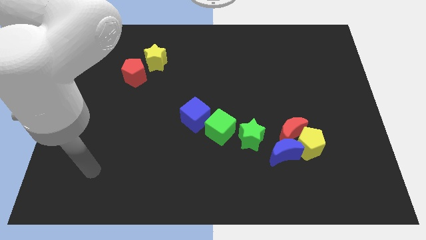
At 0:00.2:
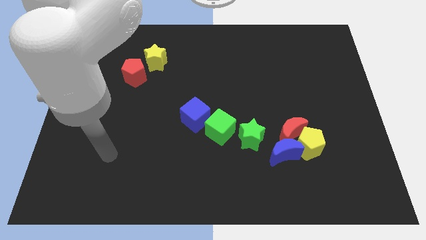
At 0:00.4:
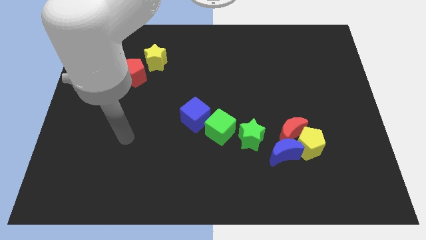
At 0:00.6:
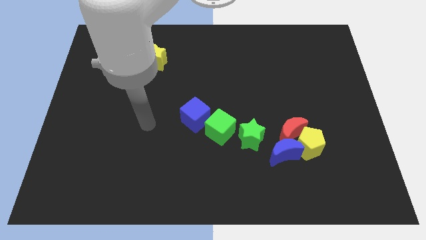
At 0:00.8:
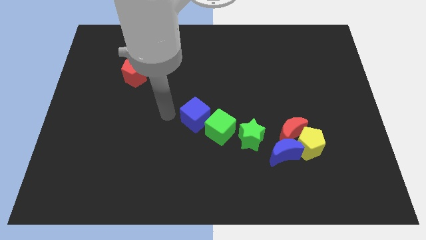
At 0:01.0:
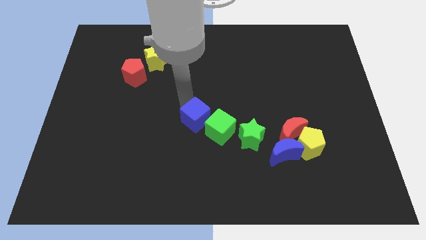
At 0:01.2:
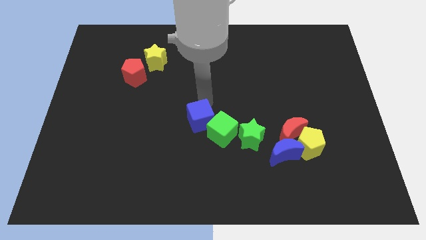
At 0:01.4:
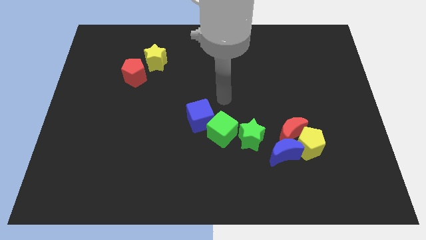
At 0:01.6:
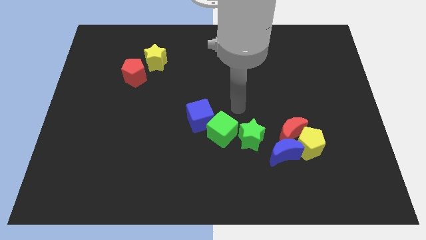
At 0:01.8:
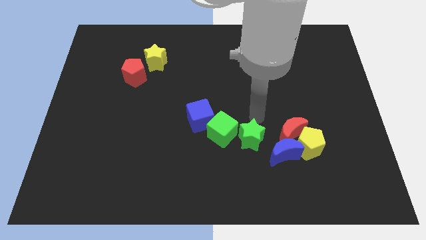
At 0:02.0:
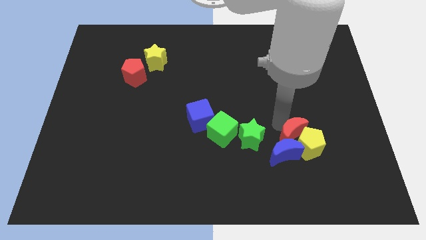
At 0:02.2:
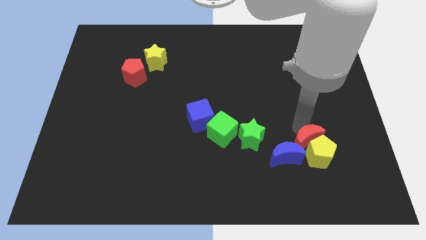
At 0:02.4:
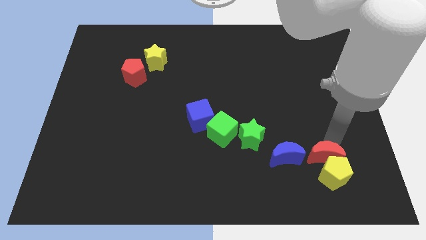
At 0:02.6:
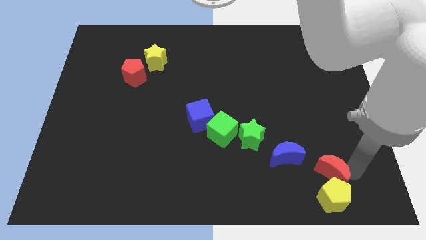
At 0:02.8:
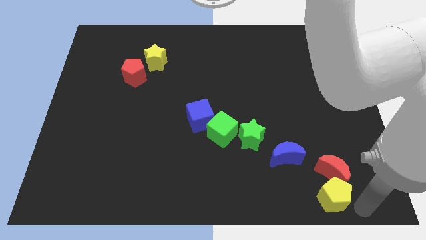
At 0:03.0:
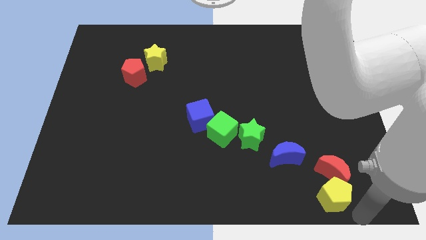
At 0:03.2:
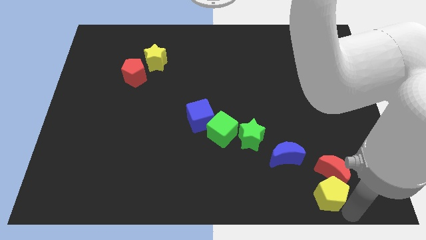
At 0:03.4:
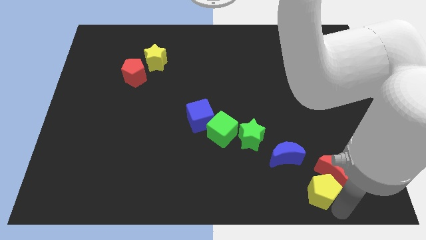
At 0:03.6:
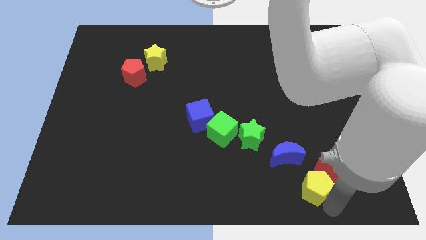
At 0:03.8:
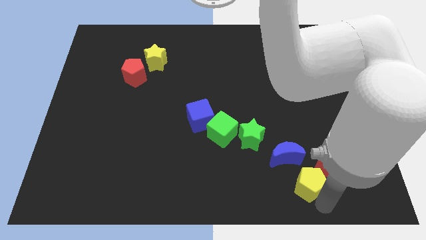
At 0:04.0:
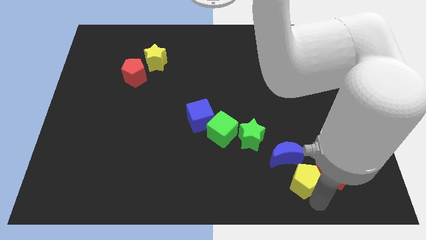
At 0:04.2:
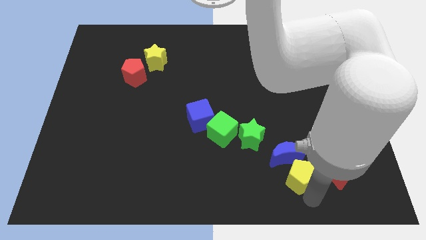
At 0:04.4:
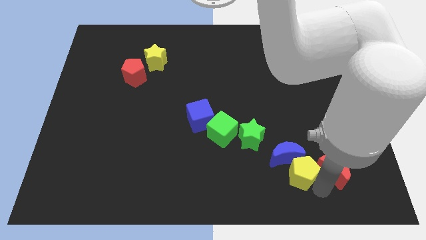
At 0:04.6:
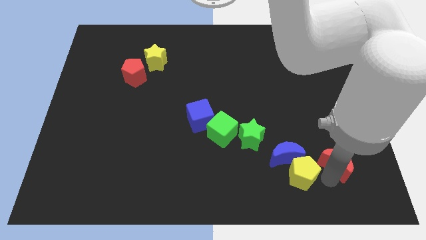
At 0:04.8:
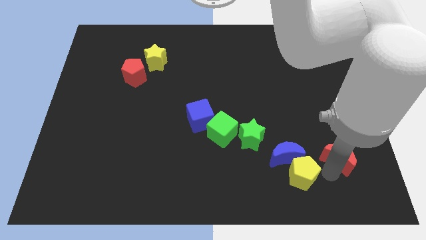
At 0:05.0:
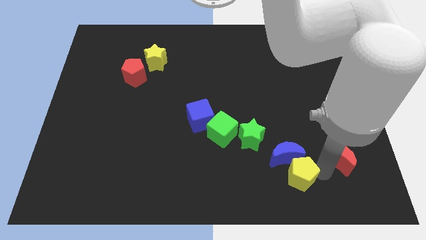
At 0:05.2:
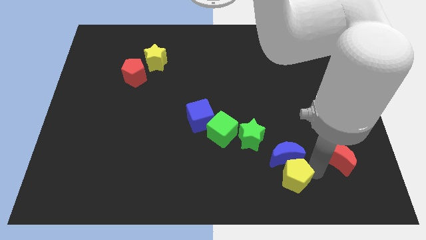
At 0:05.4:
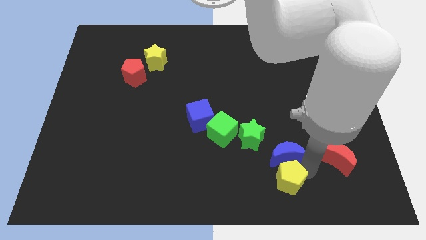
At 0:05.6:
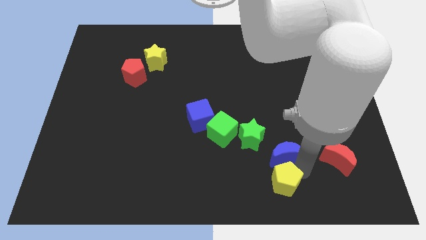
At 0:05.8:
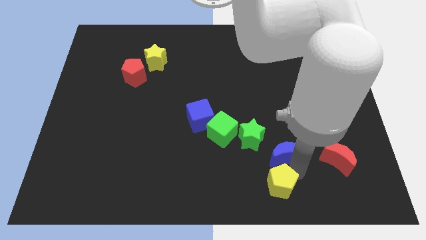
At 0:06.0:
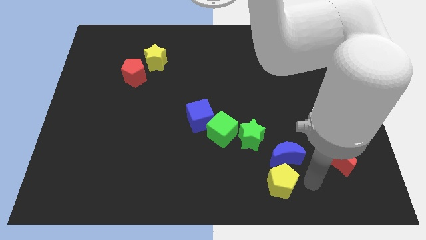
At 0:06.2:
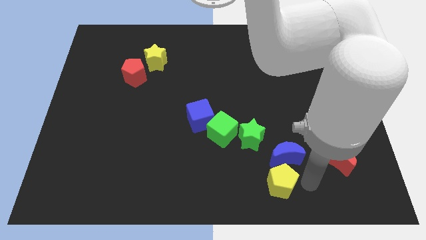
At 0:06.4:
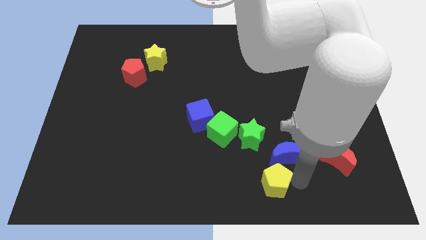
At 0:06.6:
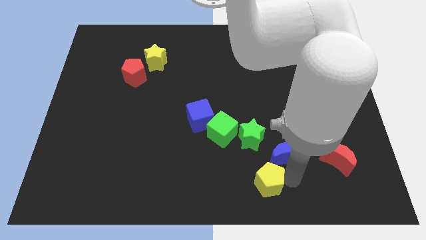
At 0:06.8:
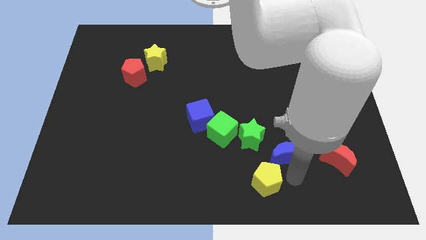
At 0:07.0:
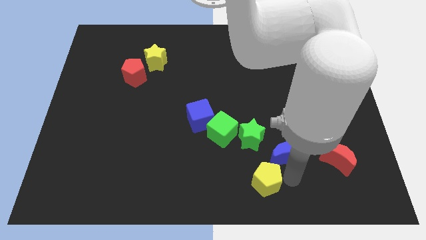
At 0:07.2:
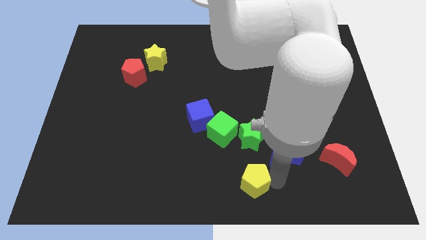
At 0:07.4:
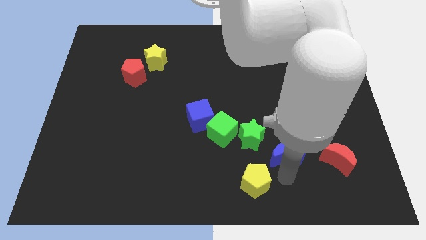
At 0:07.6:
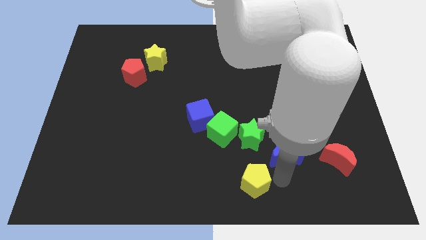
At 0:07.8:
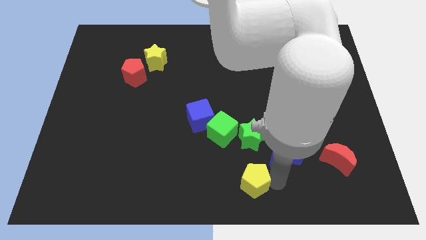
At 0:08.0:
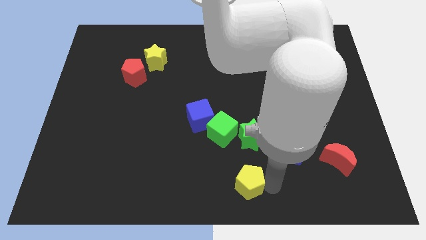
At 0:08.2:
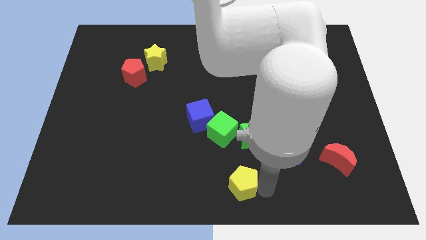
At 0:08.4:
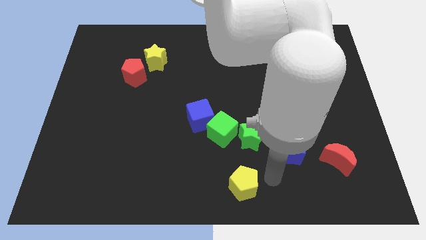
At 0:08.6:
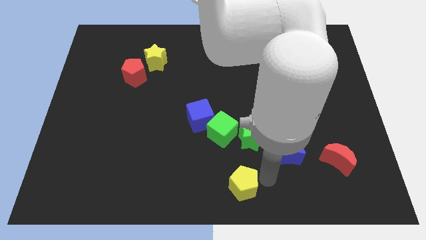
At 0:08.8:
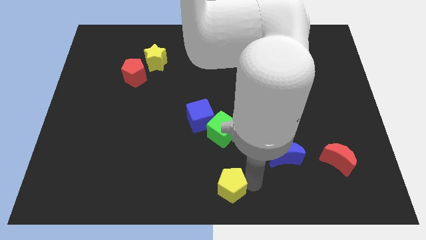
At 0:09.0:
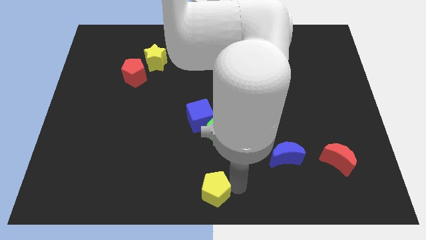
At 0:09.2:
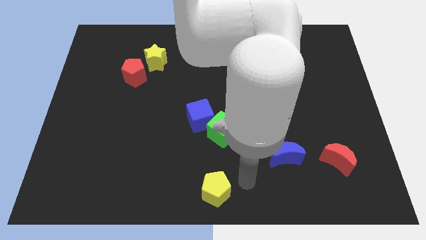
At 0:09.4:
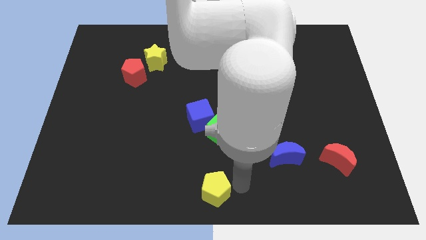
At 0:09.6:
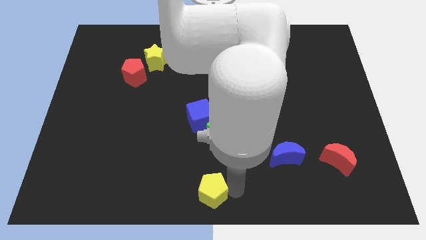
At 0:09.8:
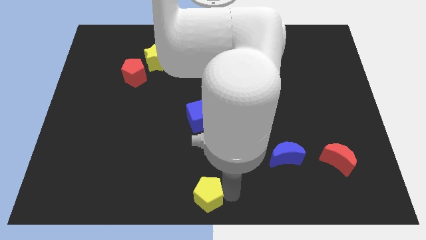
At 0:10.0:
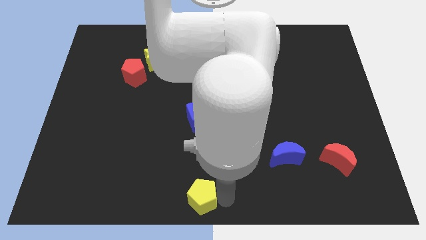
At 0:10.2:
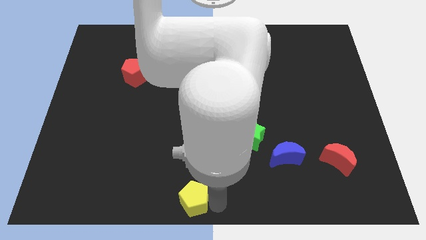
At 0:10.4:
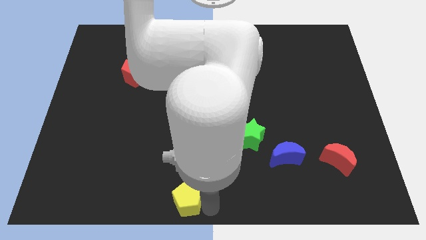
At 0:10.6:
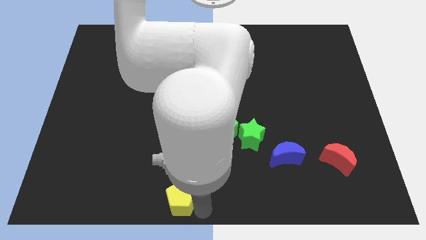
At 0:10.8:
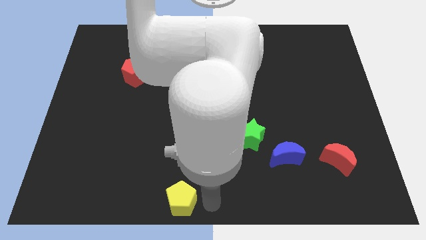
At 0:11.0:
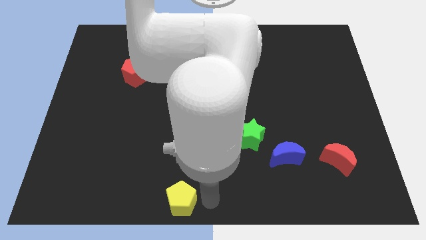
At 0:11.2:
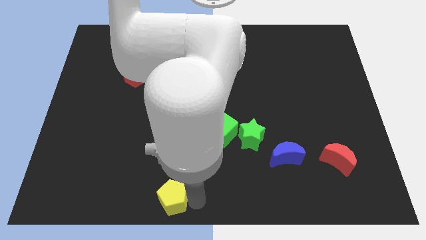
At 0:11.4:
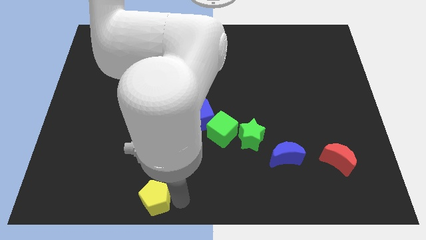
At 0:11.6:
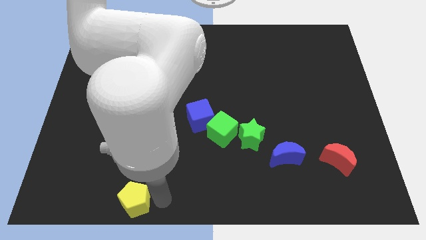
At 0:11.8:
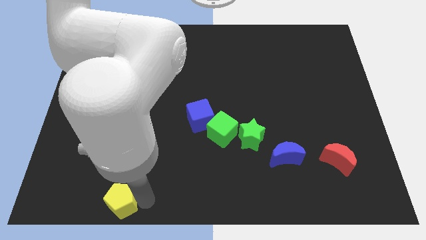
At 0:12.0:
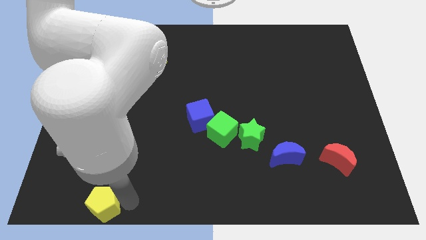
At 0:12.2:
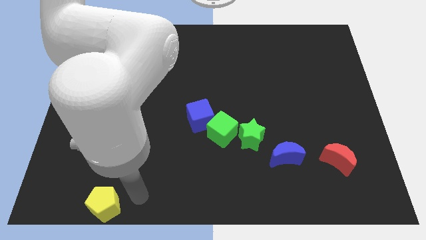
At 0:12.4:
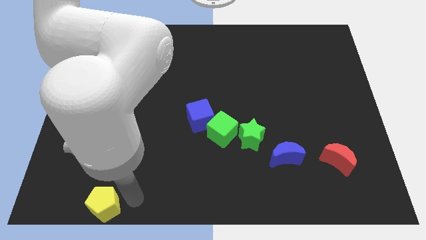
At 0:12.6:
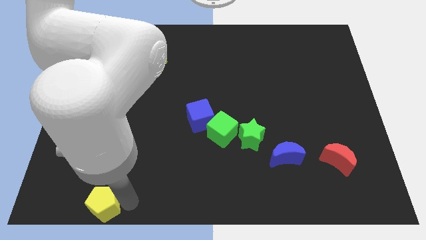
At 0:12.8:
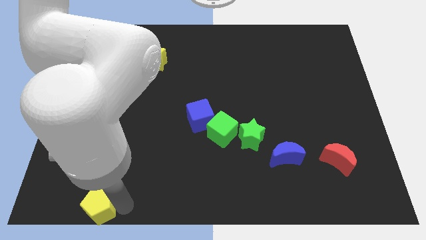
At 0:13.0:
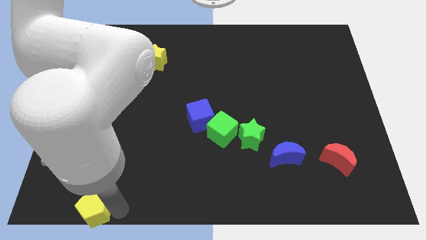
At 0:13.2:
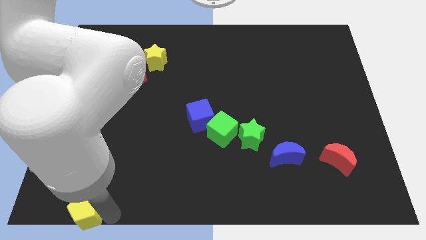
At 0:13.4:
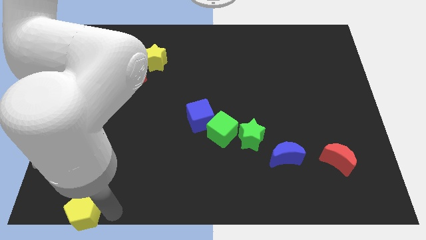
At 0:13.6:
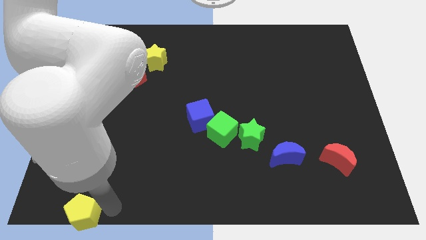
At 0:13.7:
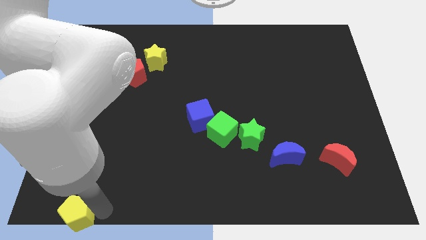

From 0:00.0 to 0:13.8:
put the yellow pentagon to the bottom left
